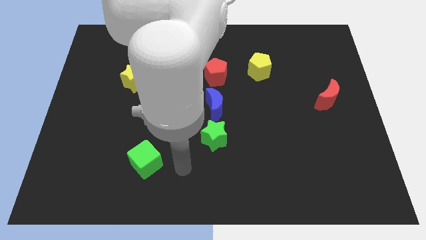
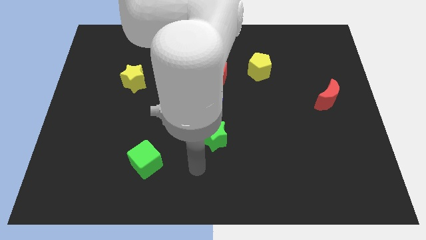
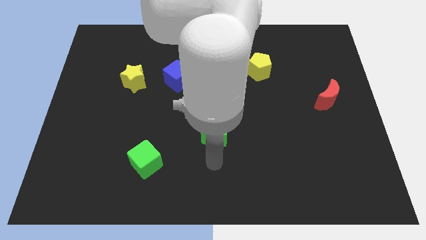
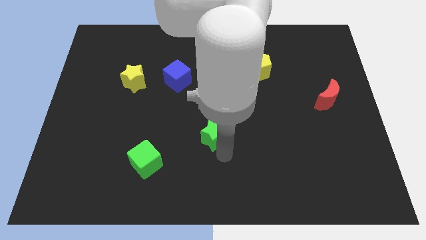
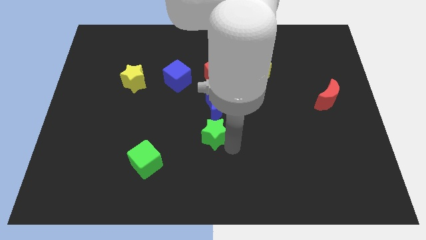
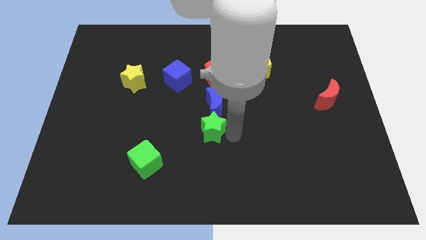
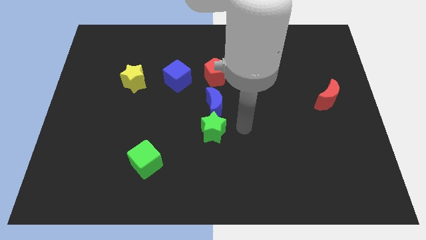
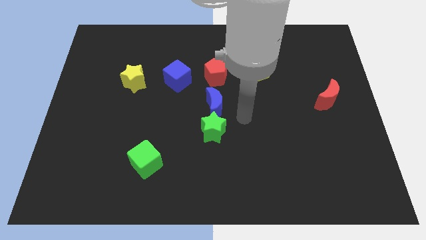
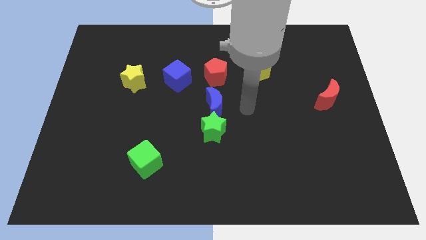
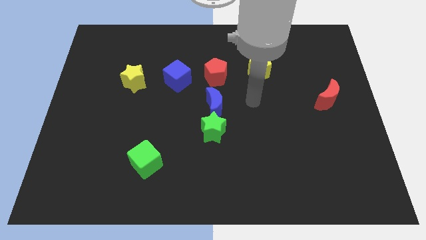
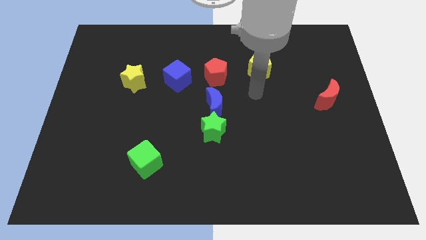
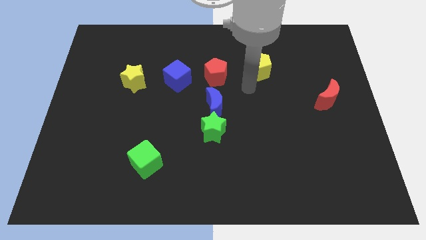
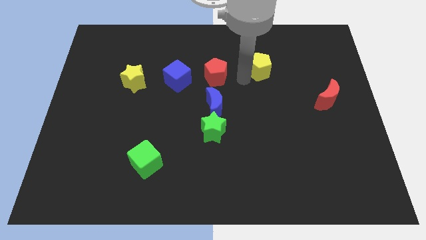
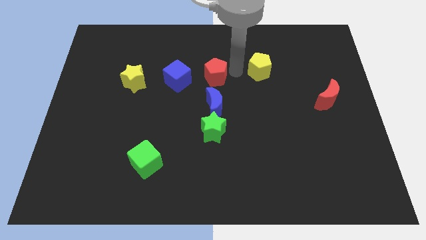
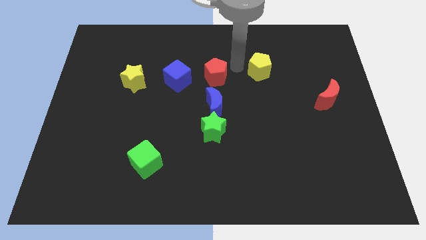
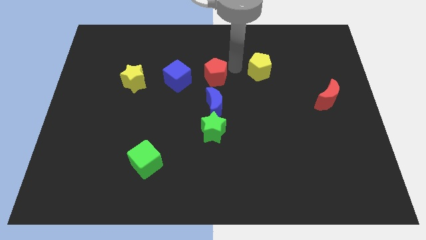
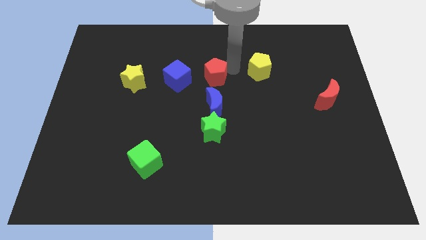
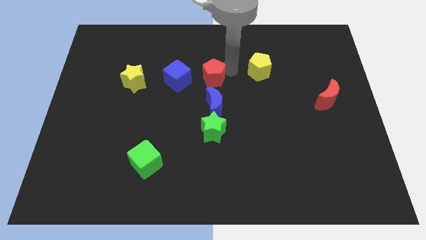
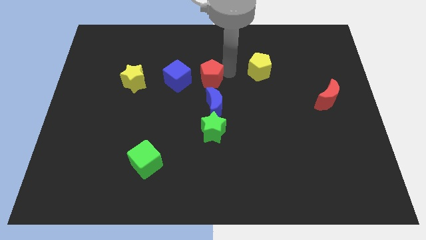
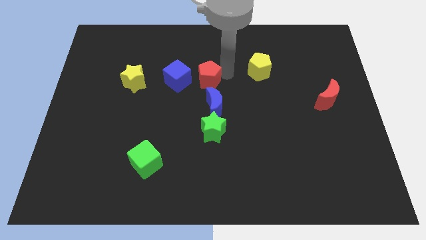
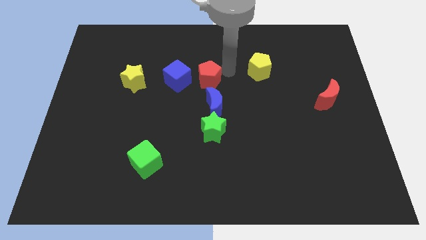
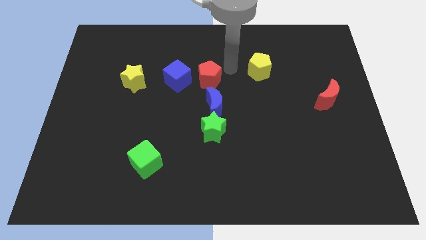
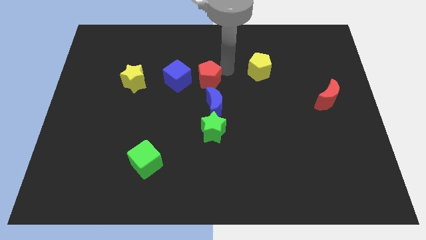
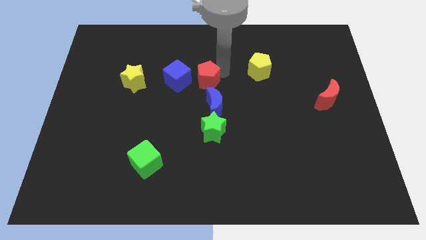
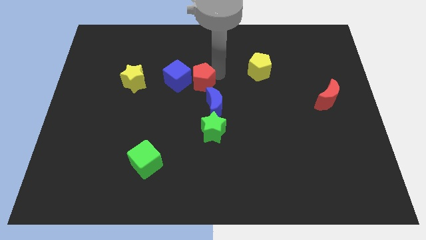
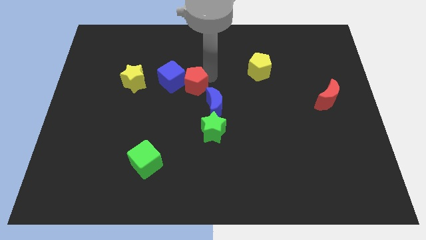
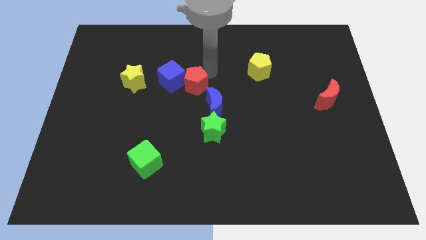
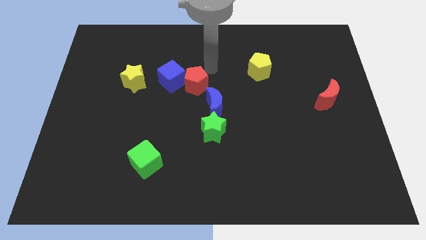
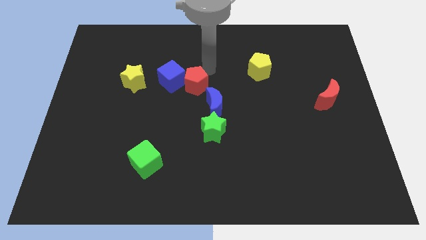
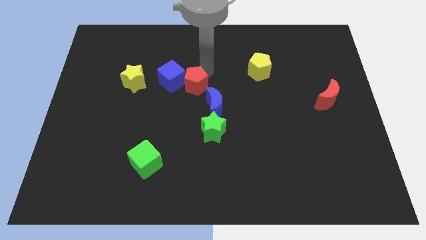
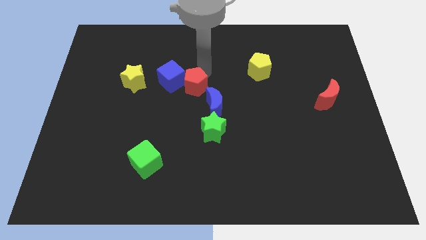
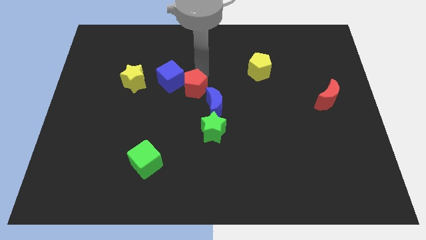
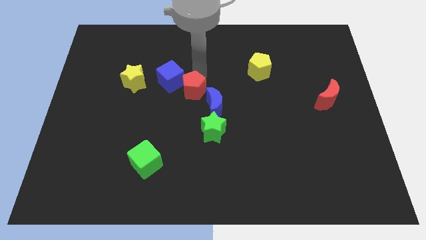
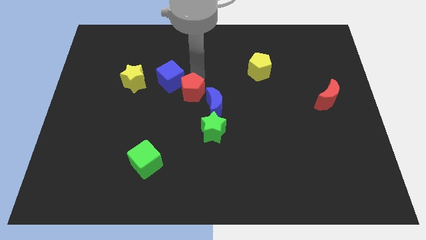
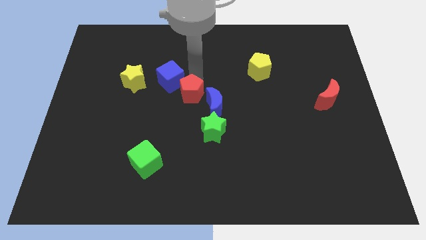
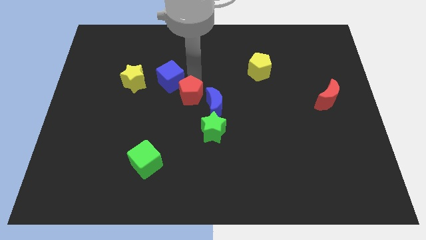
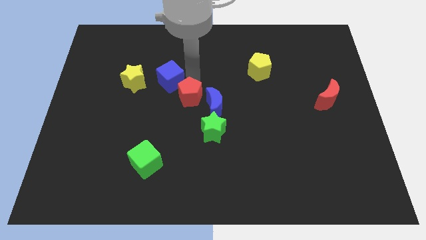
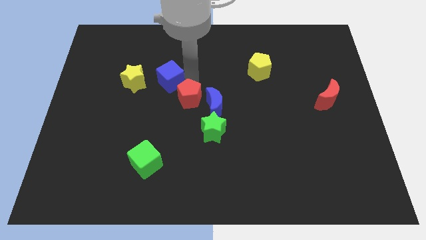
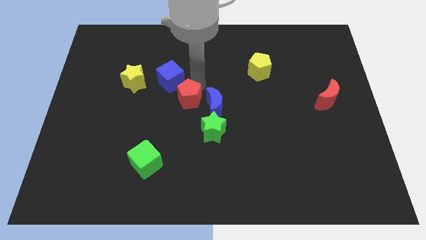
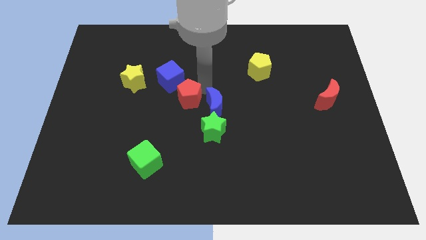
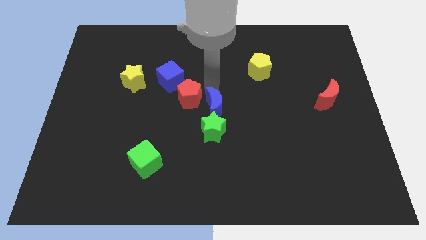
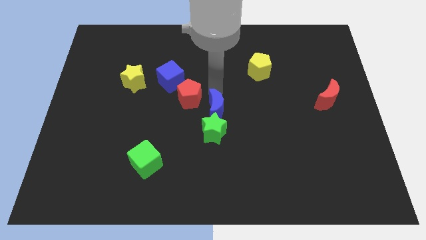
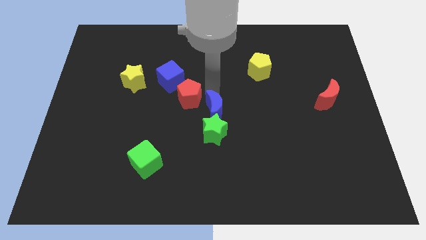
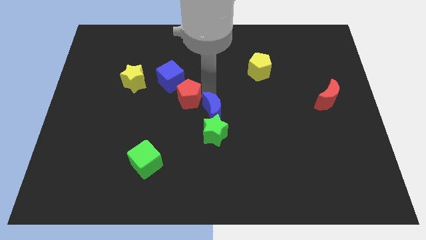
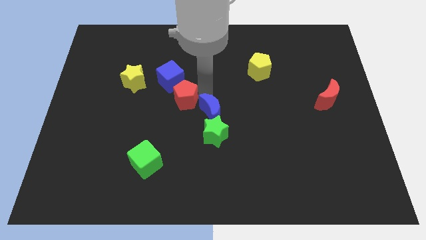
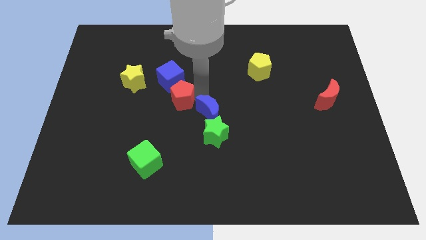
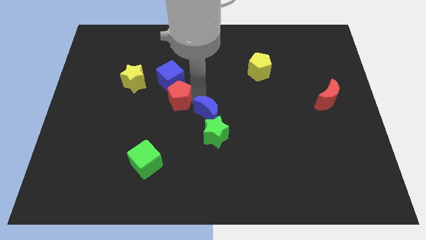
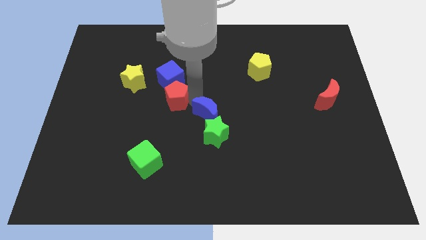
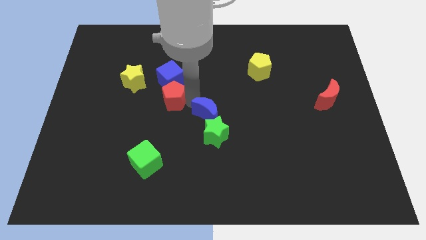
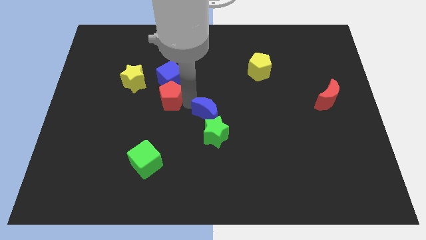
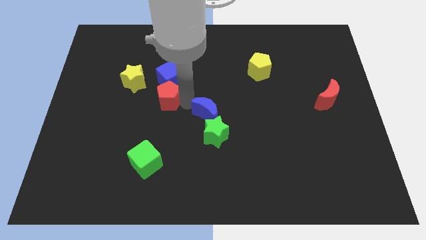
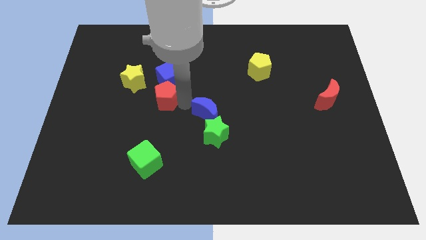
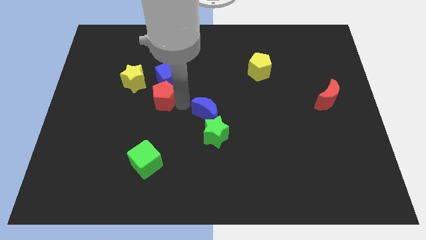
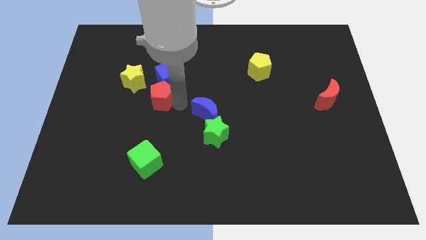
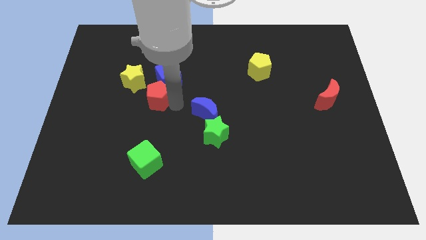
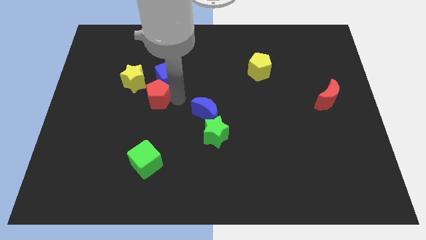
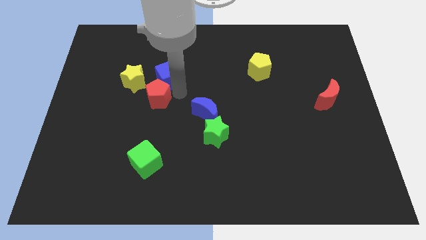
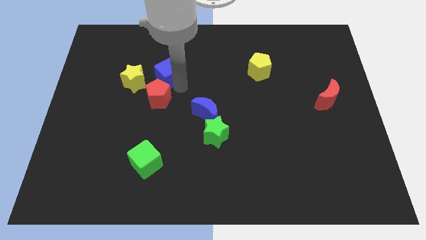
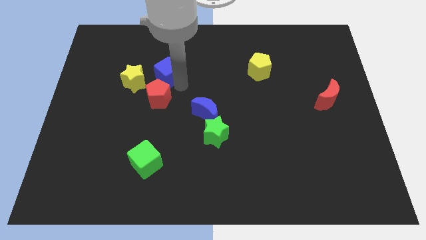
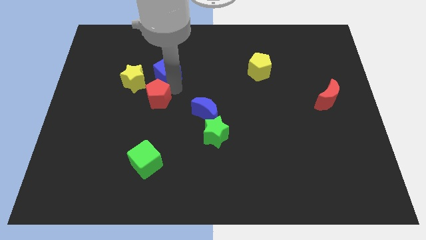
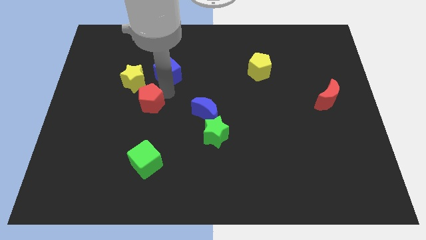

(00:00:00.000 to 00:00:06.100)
slide the red pentagon below the yellow star
